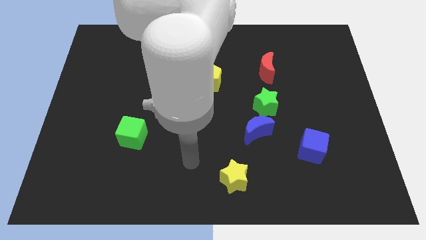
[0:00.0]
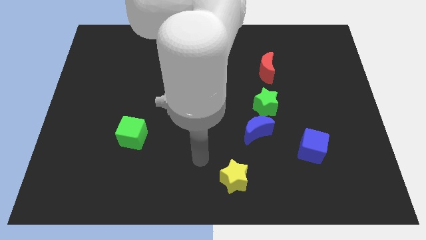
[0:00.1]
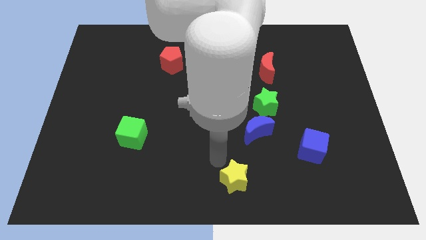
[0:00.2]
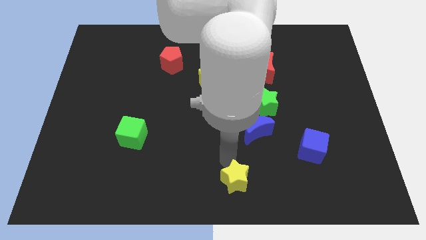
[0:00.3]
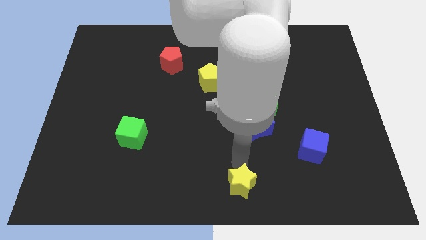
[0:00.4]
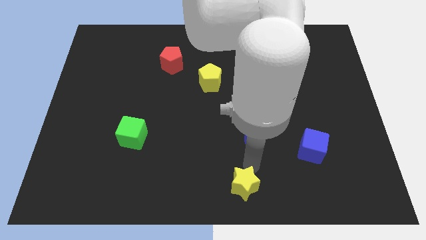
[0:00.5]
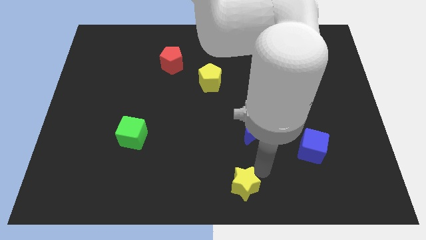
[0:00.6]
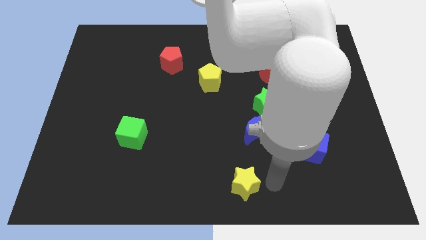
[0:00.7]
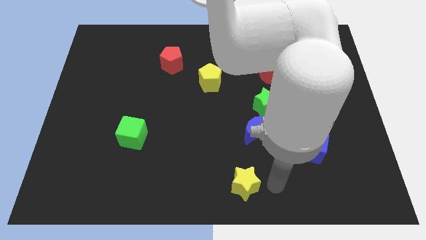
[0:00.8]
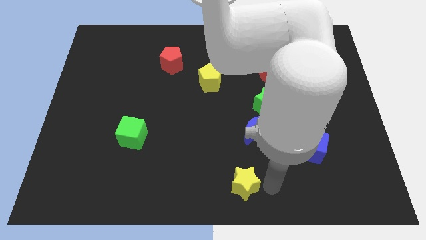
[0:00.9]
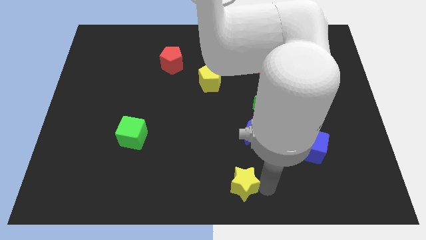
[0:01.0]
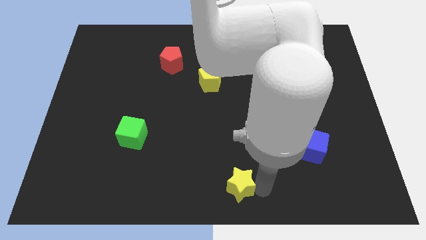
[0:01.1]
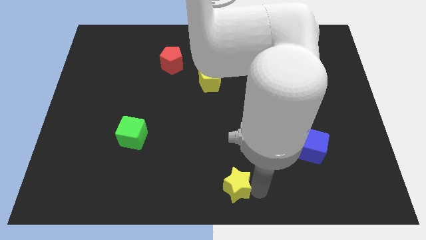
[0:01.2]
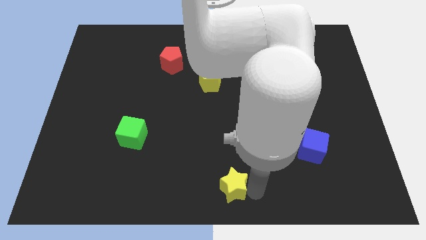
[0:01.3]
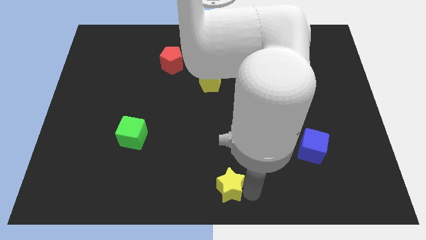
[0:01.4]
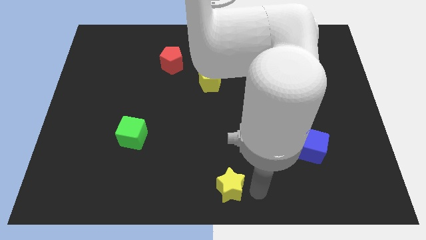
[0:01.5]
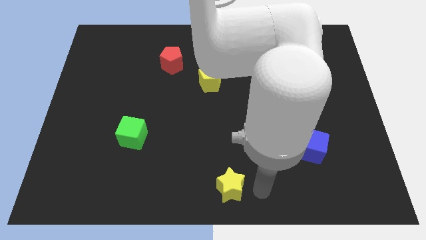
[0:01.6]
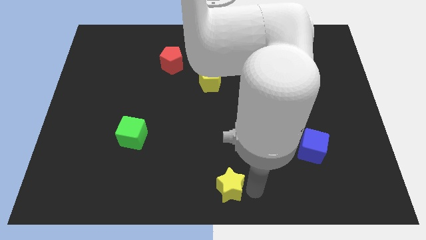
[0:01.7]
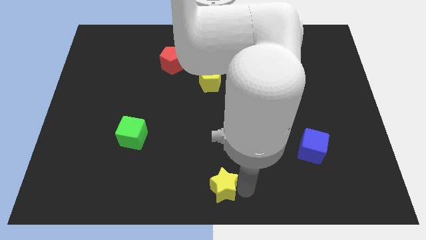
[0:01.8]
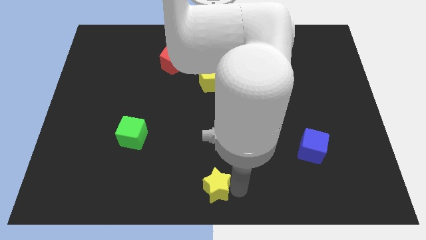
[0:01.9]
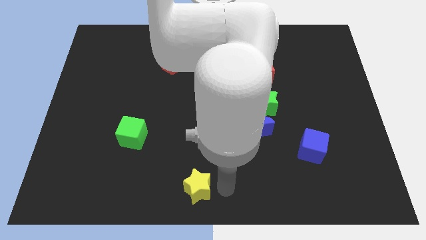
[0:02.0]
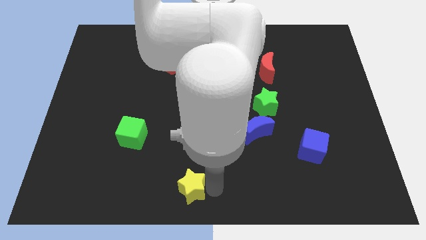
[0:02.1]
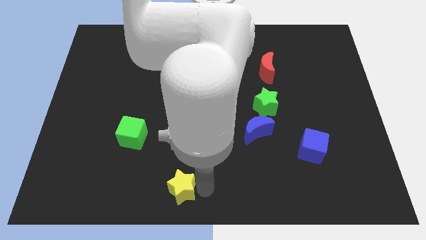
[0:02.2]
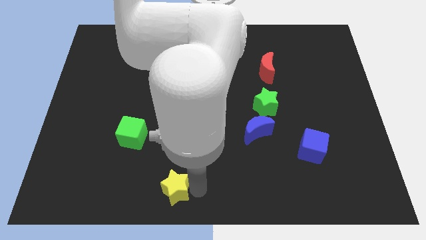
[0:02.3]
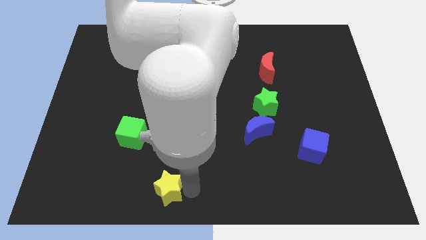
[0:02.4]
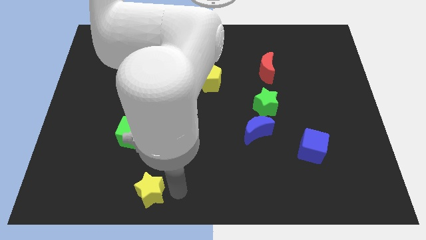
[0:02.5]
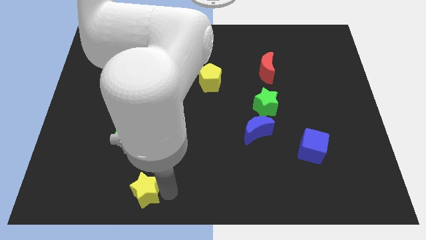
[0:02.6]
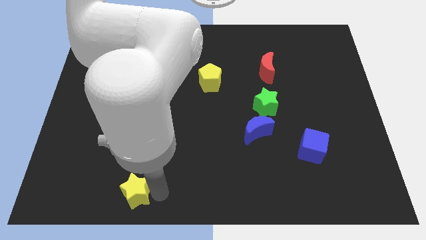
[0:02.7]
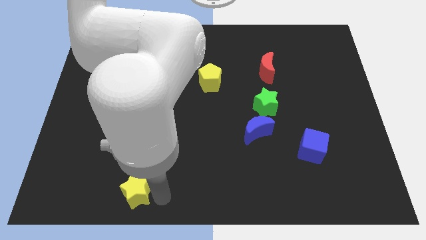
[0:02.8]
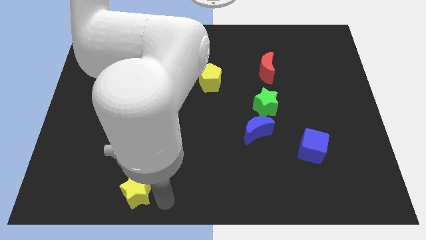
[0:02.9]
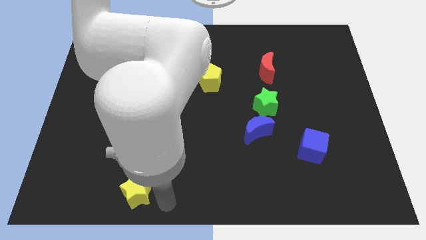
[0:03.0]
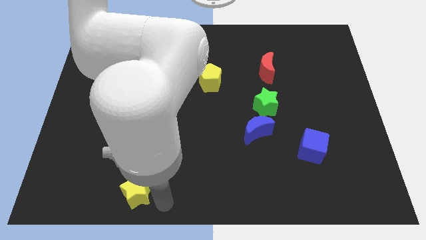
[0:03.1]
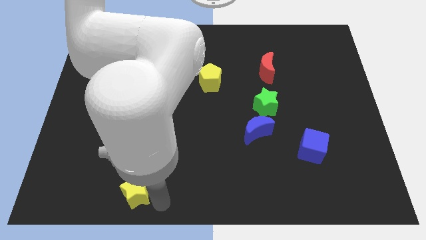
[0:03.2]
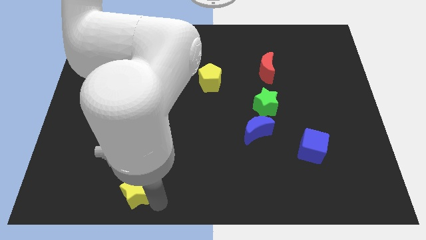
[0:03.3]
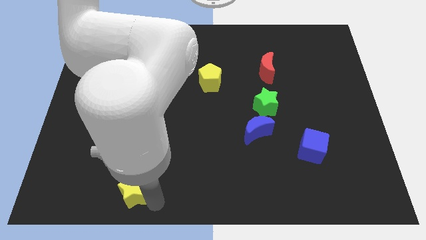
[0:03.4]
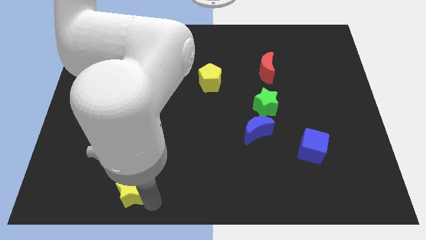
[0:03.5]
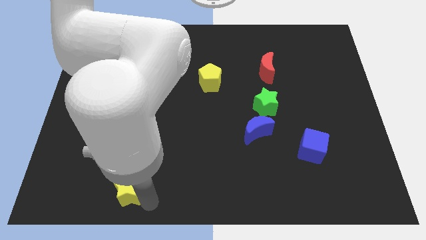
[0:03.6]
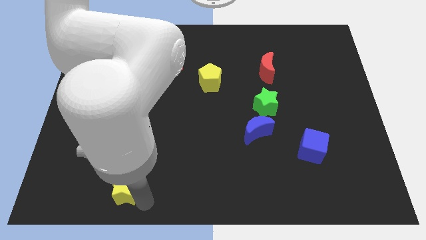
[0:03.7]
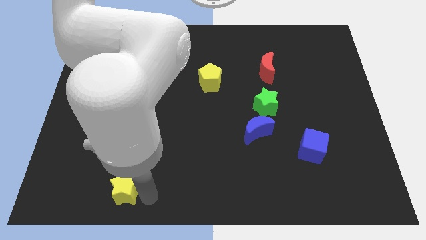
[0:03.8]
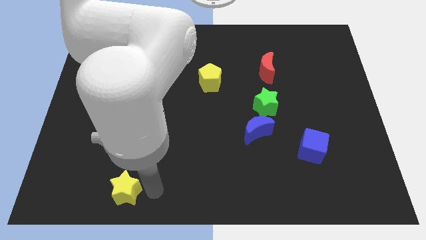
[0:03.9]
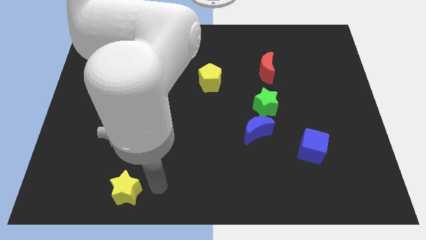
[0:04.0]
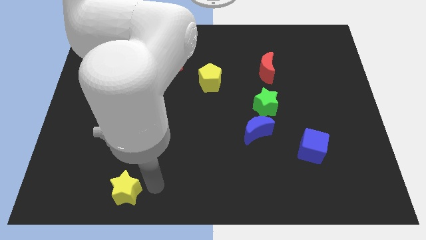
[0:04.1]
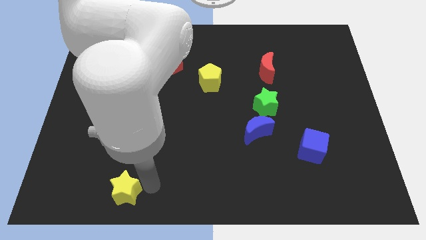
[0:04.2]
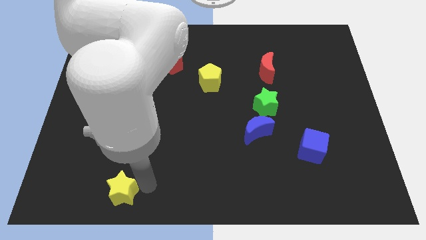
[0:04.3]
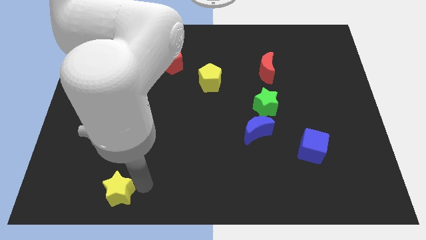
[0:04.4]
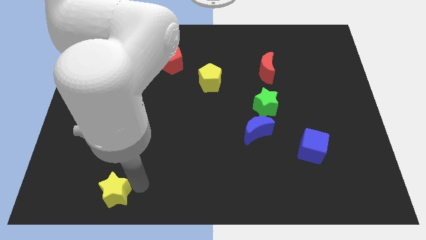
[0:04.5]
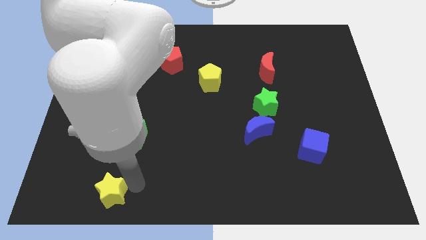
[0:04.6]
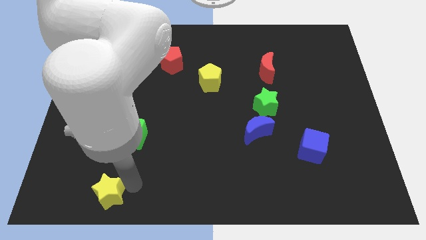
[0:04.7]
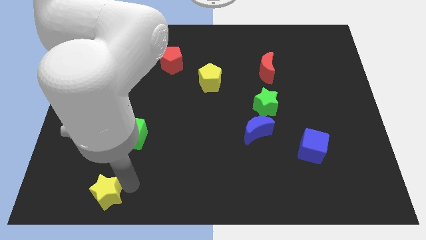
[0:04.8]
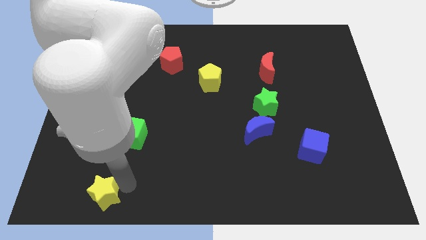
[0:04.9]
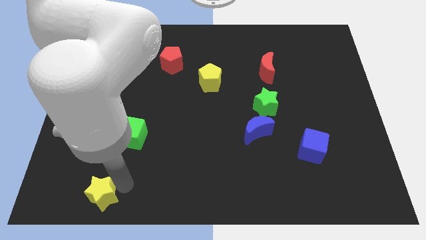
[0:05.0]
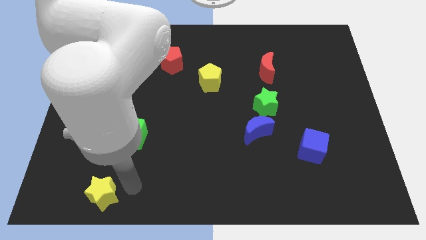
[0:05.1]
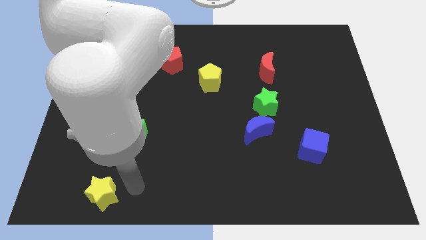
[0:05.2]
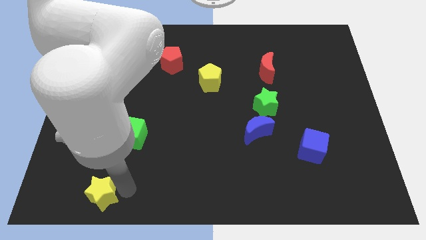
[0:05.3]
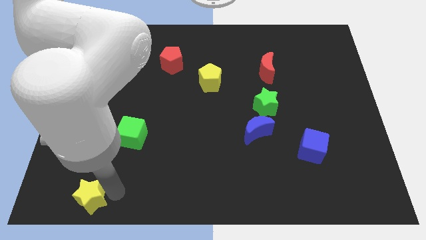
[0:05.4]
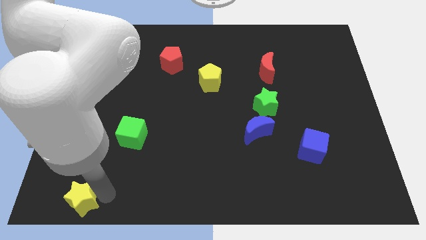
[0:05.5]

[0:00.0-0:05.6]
move the yellow star to the bottom left of the board
